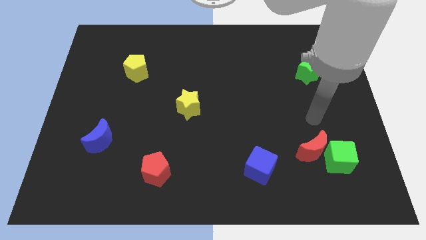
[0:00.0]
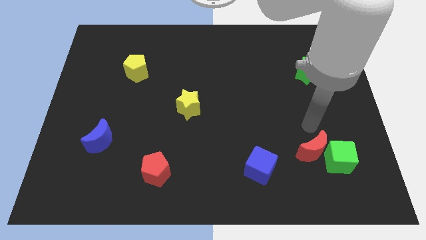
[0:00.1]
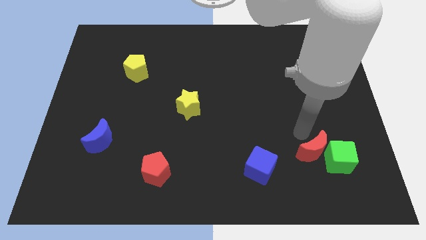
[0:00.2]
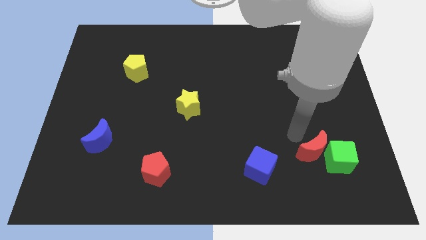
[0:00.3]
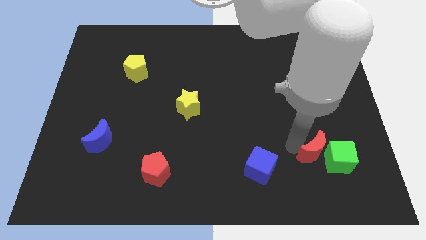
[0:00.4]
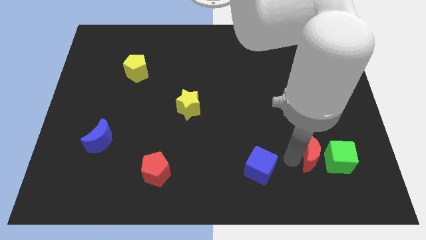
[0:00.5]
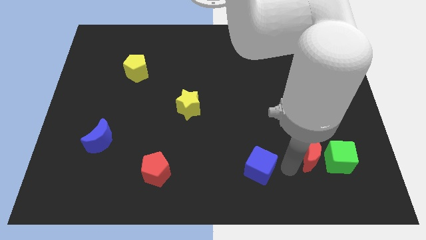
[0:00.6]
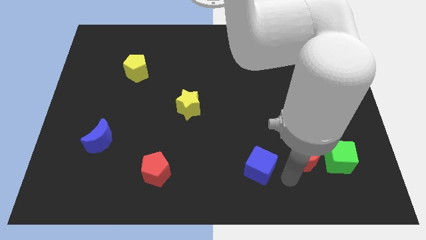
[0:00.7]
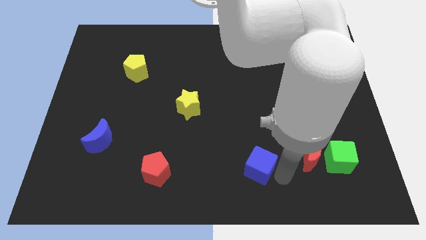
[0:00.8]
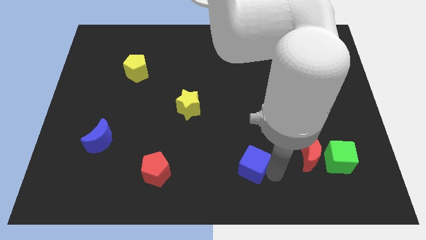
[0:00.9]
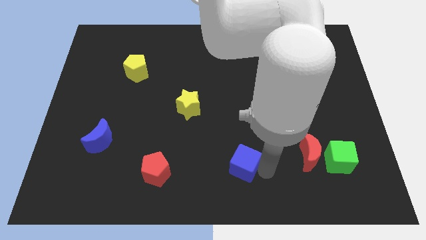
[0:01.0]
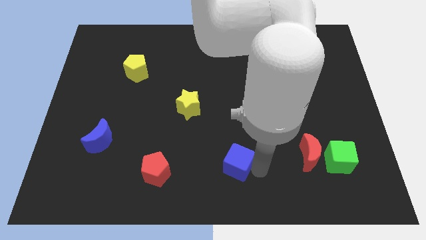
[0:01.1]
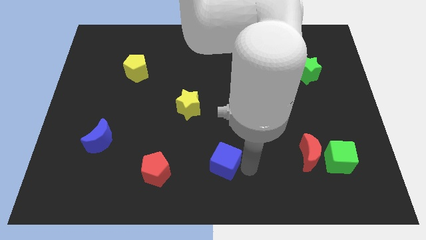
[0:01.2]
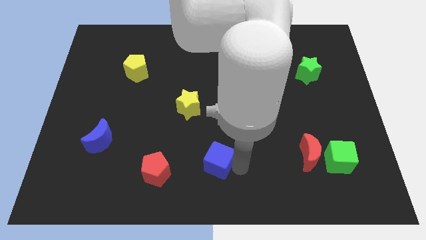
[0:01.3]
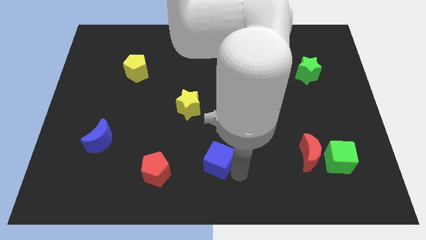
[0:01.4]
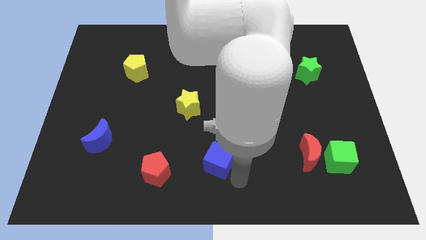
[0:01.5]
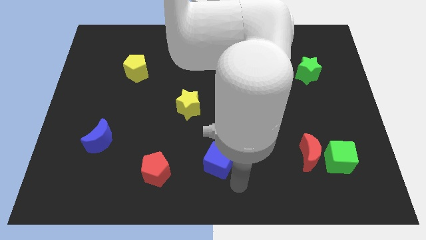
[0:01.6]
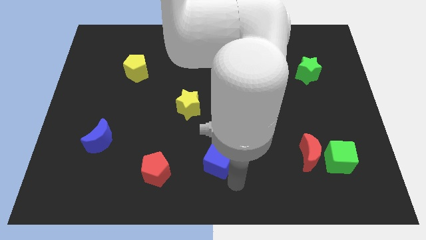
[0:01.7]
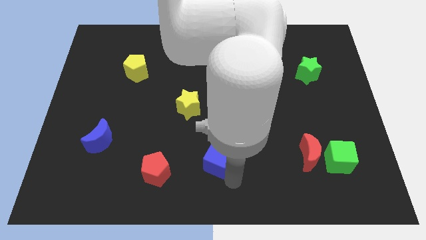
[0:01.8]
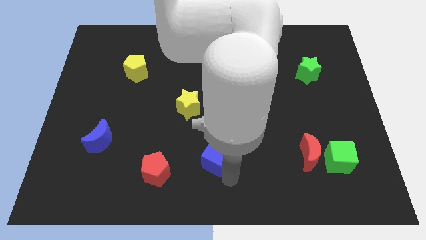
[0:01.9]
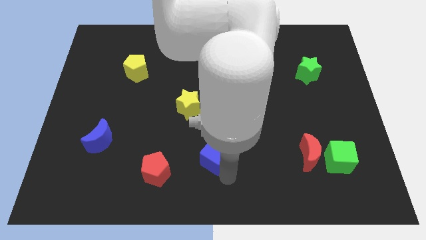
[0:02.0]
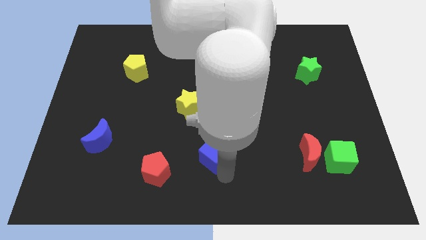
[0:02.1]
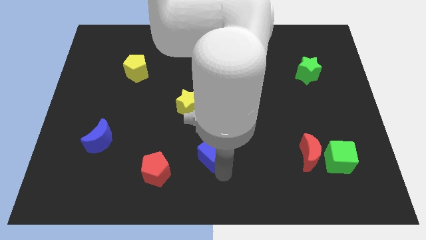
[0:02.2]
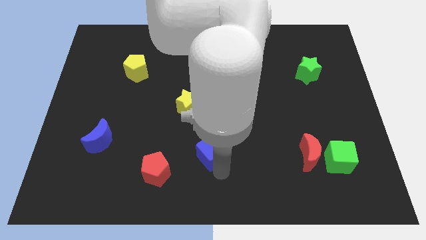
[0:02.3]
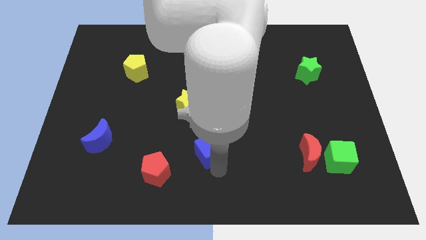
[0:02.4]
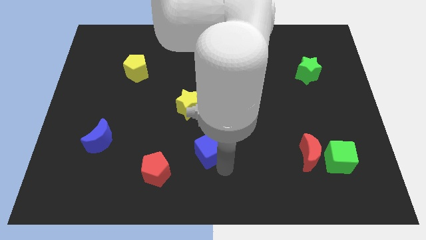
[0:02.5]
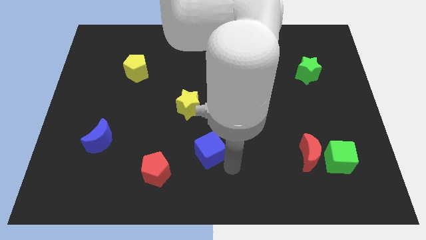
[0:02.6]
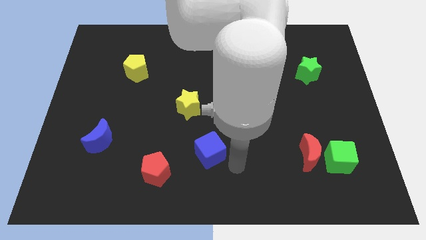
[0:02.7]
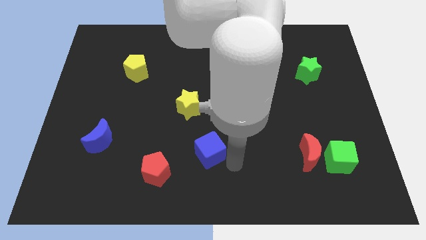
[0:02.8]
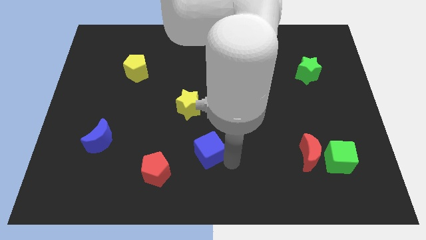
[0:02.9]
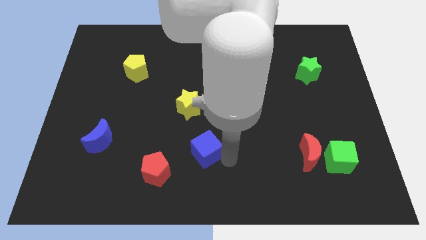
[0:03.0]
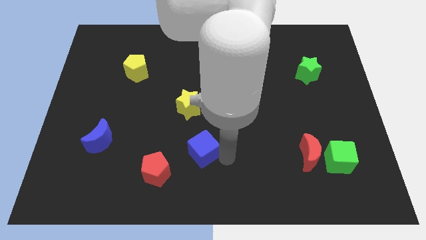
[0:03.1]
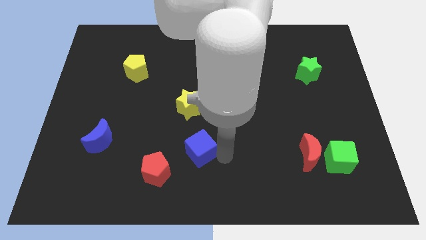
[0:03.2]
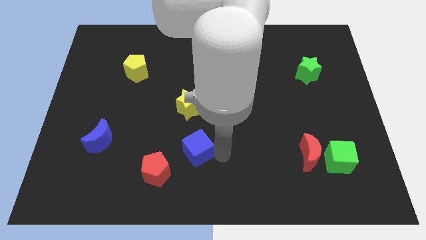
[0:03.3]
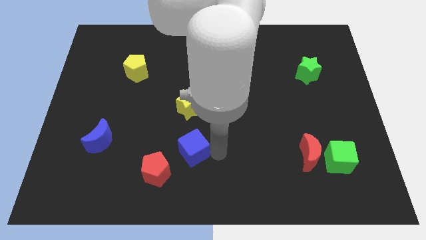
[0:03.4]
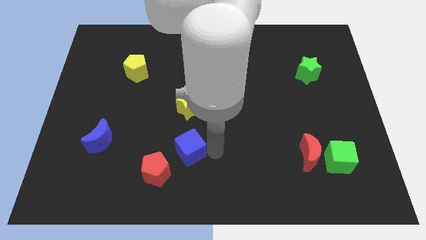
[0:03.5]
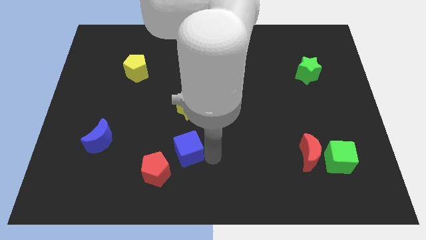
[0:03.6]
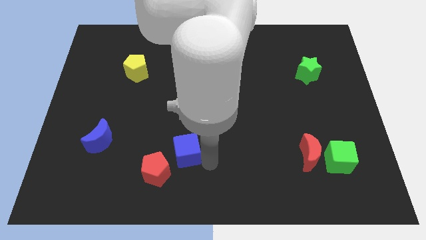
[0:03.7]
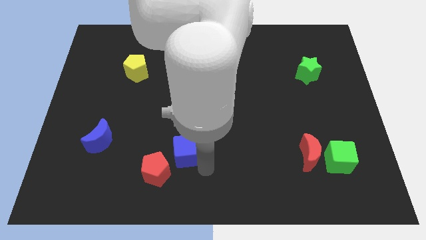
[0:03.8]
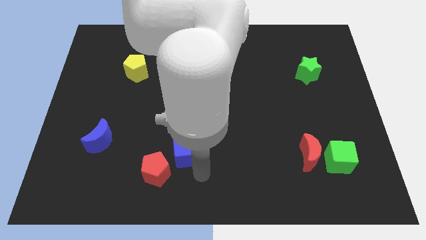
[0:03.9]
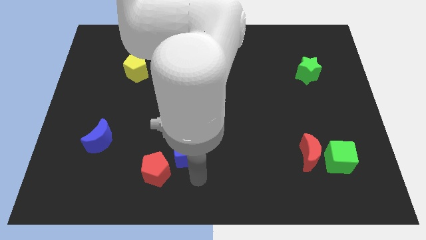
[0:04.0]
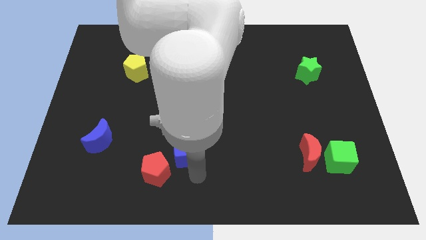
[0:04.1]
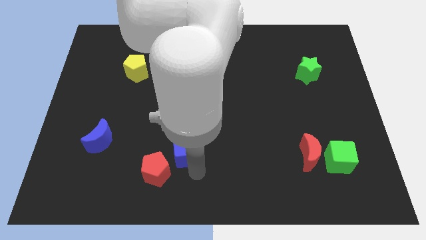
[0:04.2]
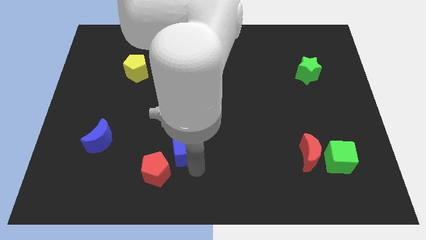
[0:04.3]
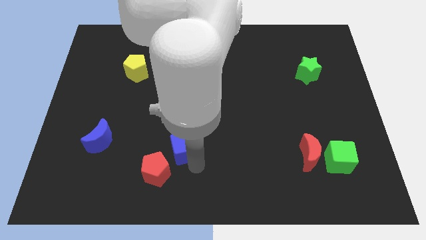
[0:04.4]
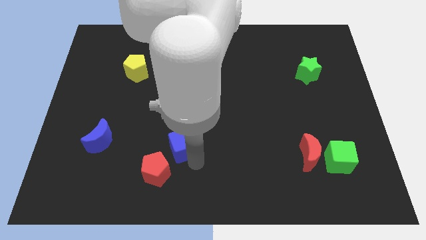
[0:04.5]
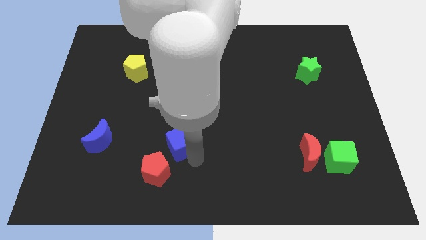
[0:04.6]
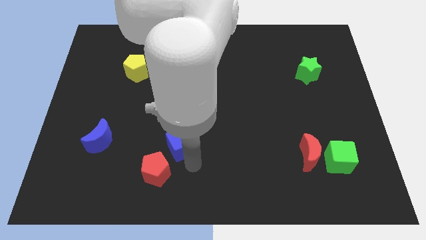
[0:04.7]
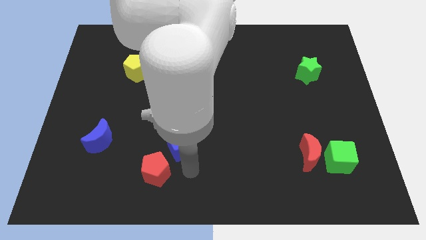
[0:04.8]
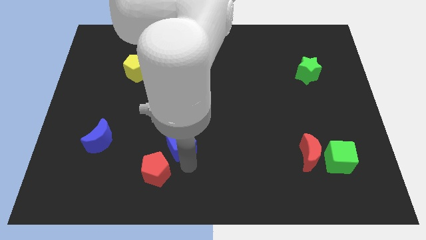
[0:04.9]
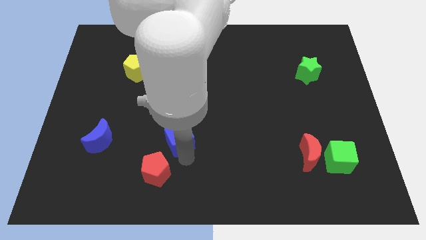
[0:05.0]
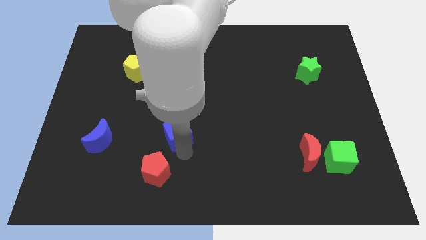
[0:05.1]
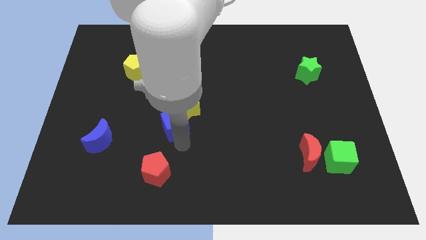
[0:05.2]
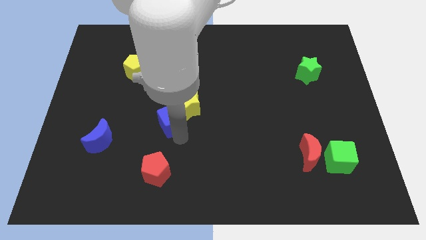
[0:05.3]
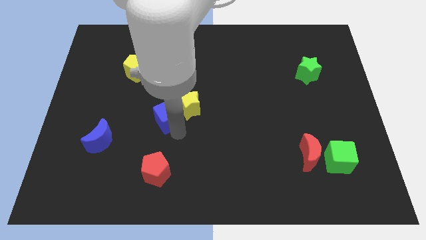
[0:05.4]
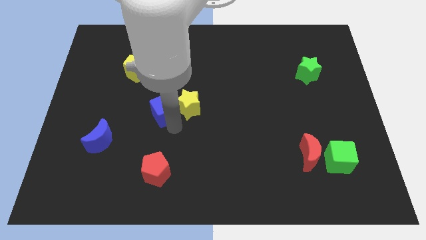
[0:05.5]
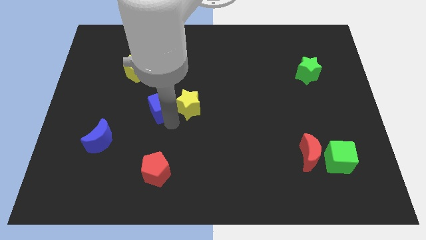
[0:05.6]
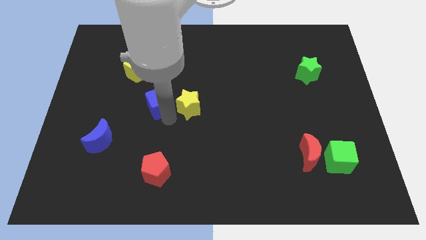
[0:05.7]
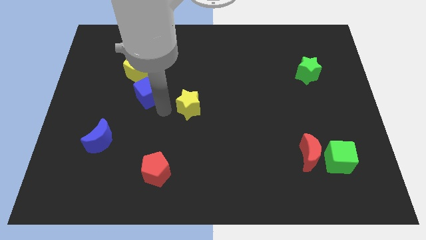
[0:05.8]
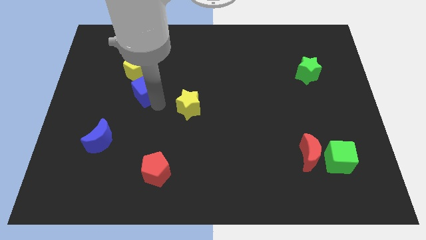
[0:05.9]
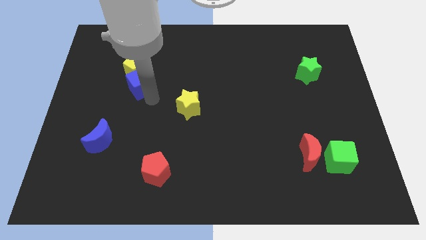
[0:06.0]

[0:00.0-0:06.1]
slide the blue cube close to the yellow pentagon
